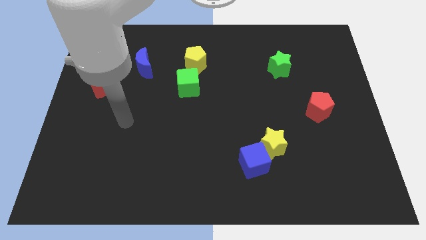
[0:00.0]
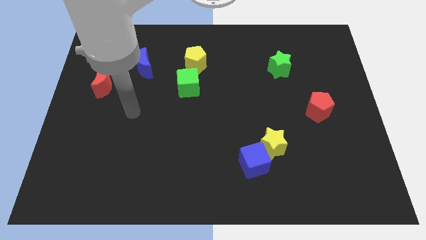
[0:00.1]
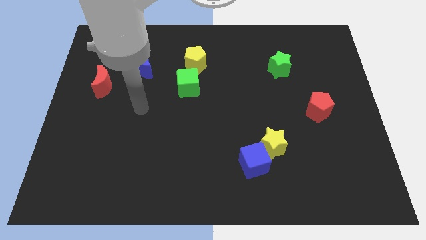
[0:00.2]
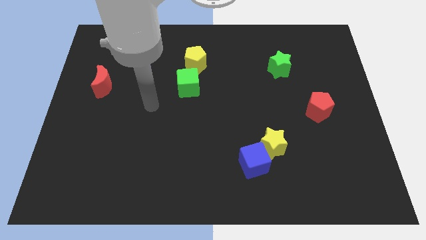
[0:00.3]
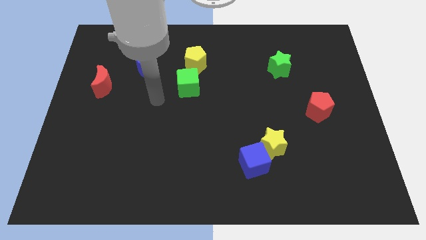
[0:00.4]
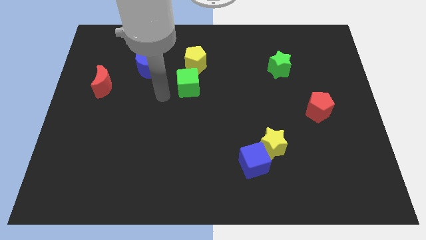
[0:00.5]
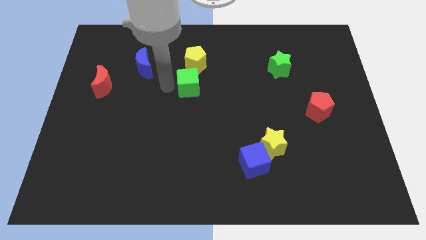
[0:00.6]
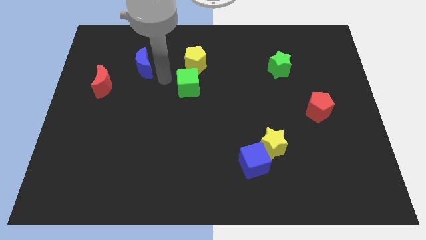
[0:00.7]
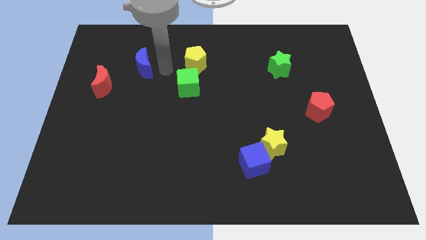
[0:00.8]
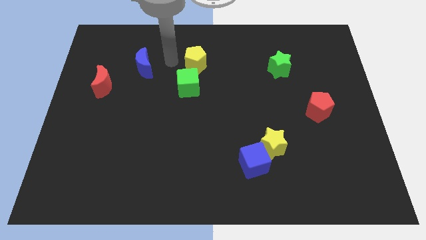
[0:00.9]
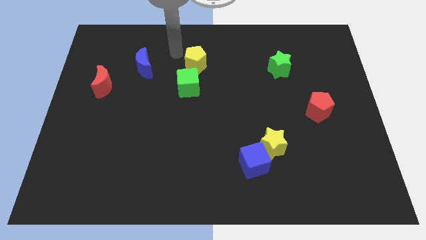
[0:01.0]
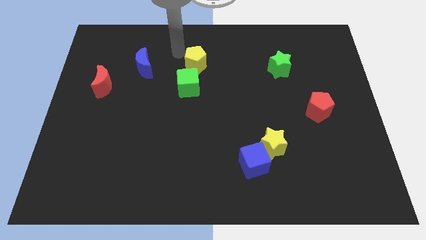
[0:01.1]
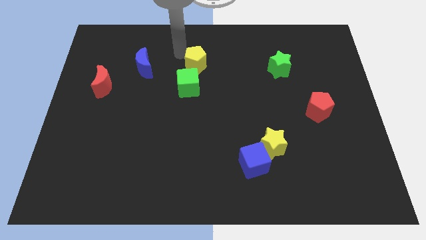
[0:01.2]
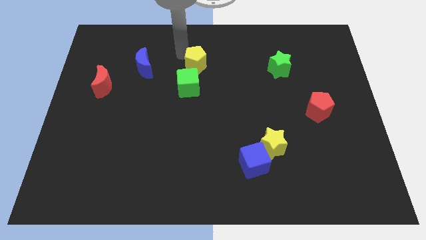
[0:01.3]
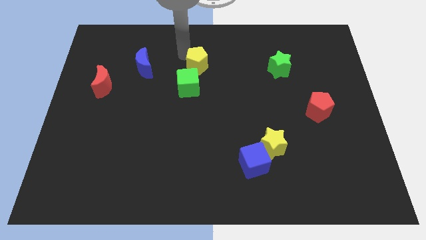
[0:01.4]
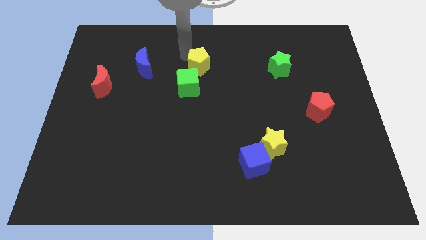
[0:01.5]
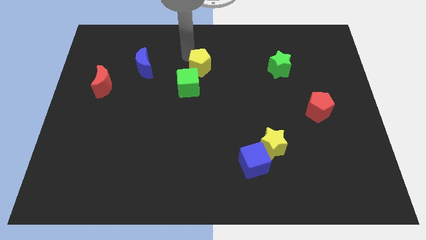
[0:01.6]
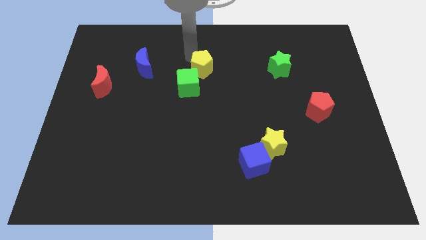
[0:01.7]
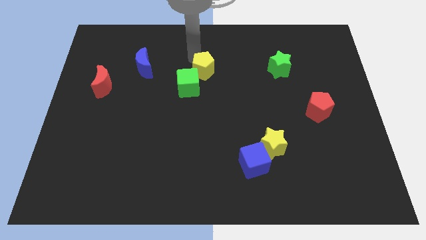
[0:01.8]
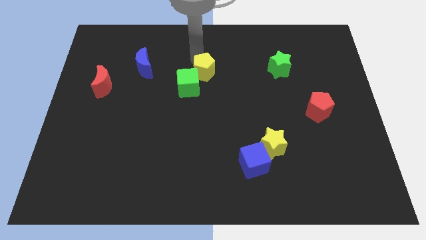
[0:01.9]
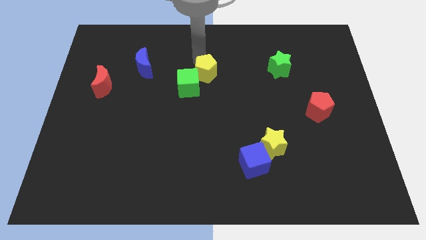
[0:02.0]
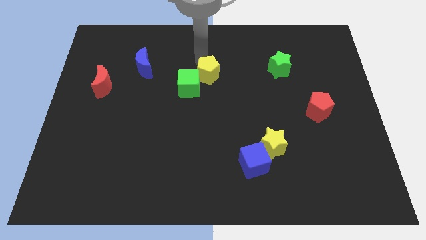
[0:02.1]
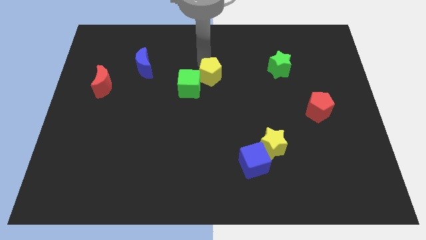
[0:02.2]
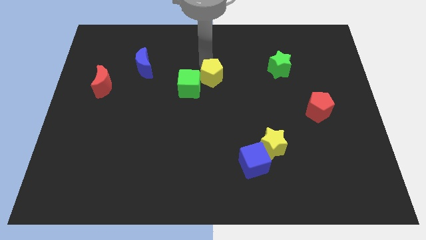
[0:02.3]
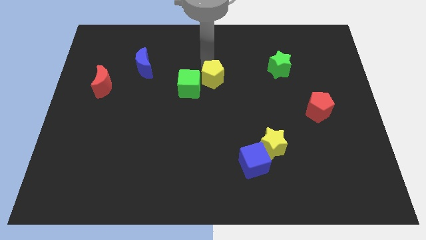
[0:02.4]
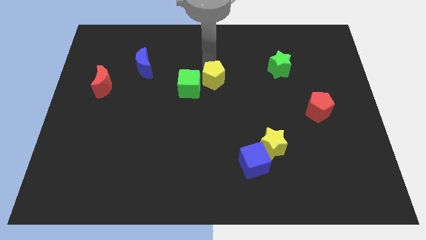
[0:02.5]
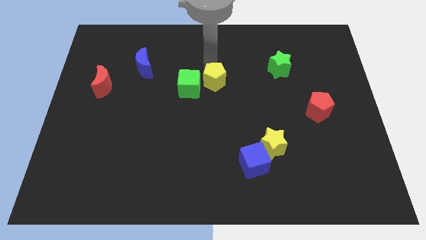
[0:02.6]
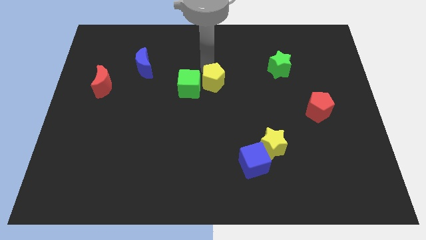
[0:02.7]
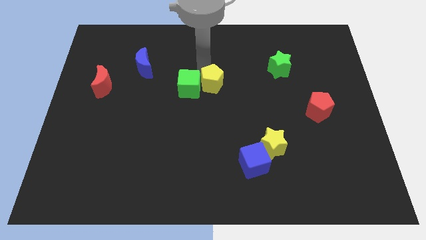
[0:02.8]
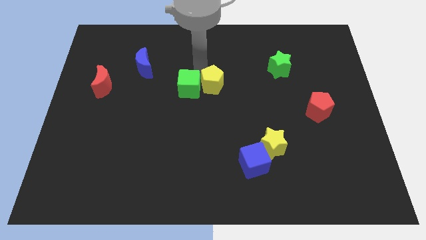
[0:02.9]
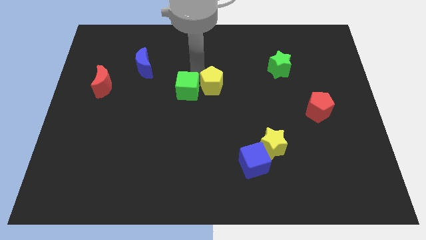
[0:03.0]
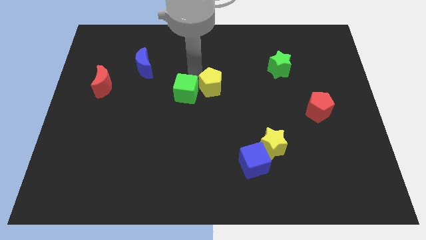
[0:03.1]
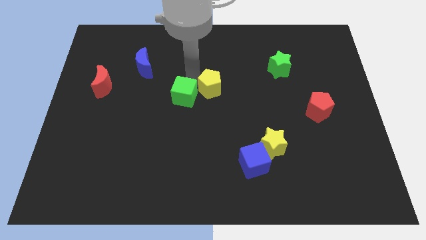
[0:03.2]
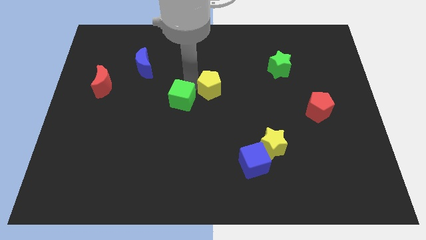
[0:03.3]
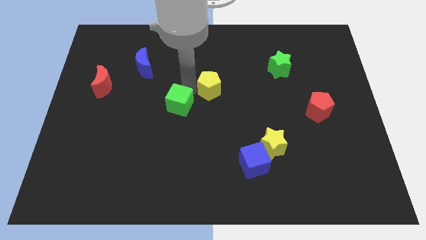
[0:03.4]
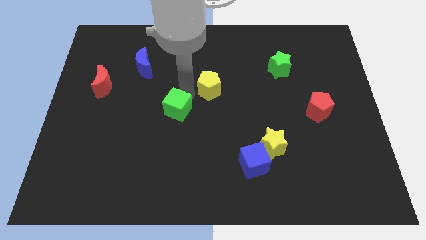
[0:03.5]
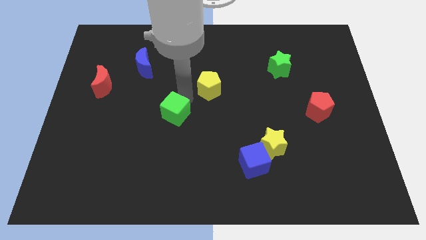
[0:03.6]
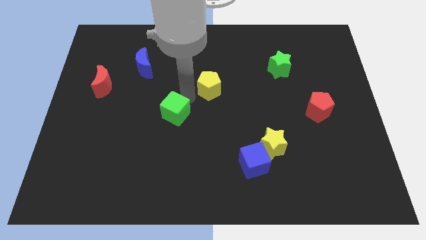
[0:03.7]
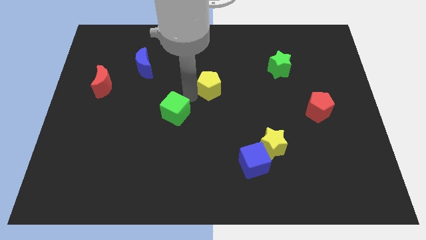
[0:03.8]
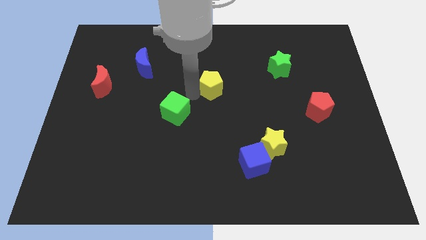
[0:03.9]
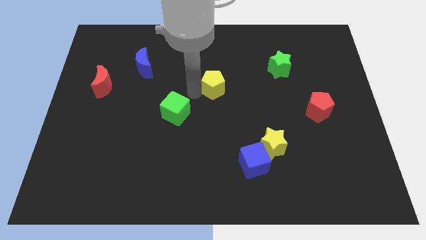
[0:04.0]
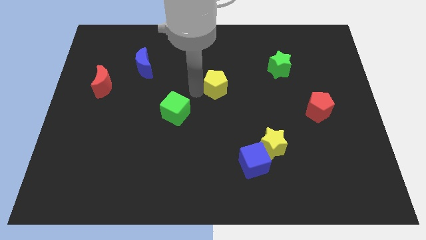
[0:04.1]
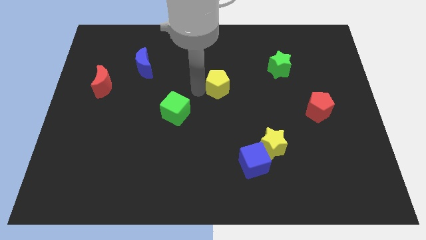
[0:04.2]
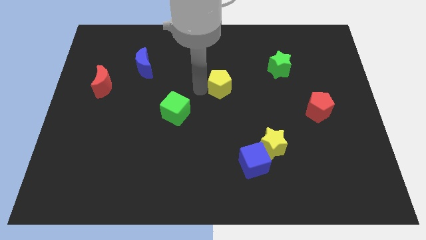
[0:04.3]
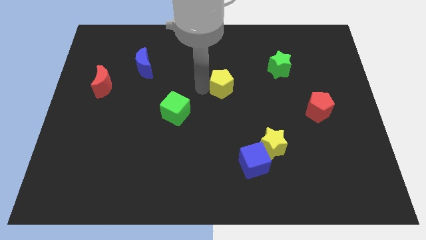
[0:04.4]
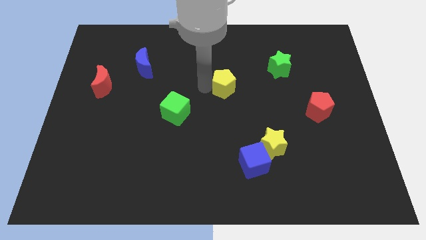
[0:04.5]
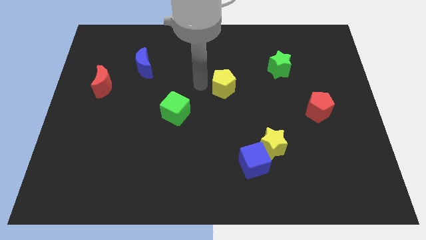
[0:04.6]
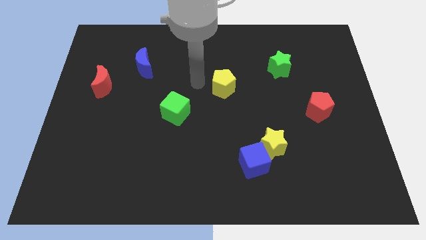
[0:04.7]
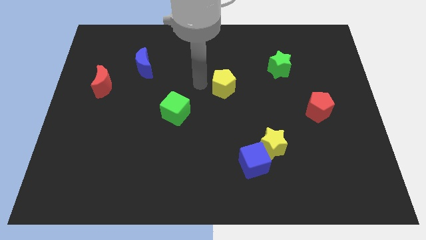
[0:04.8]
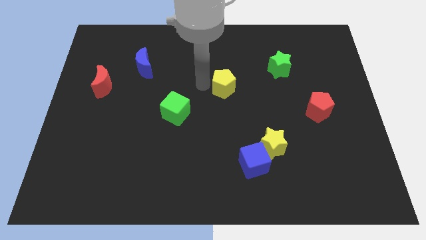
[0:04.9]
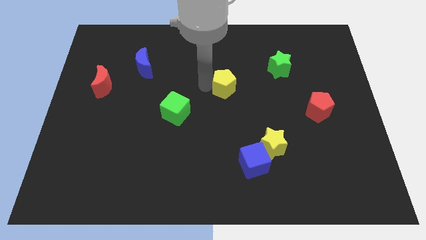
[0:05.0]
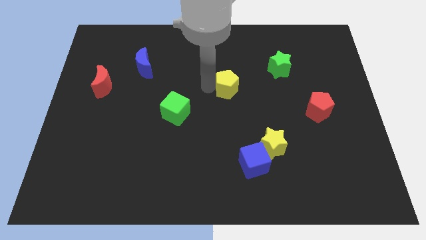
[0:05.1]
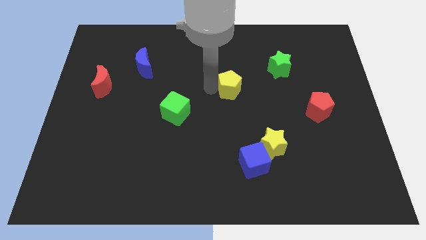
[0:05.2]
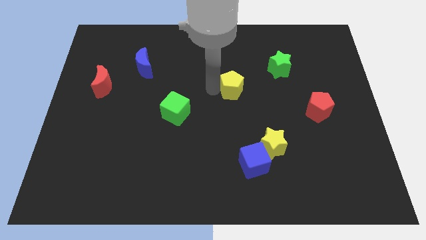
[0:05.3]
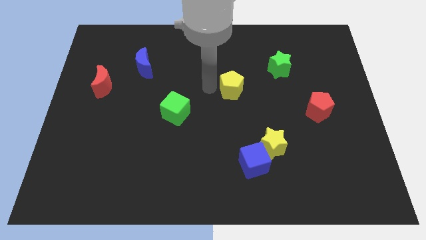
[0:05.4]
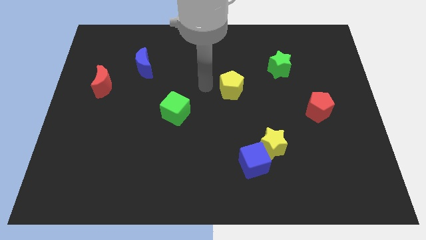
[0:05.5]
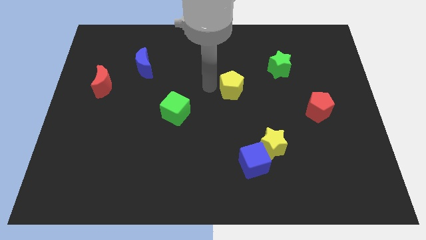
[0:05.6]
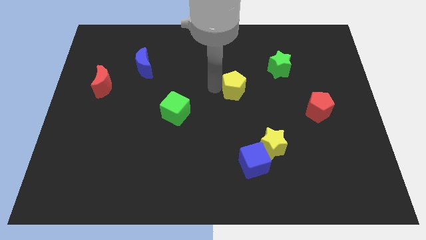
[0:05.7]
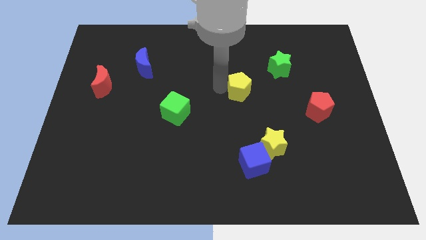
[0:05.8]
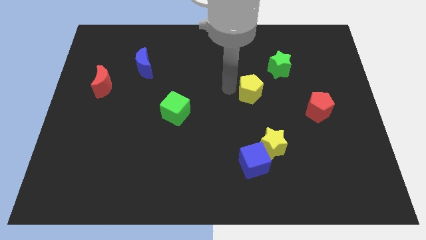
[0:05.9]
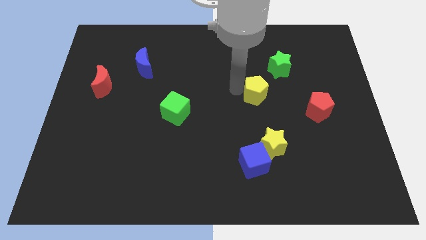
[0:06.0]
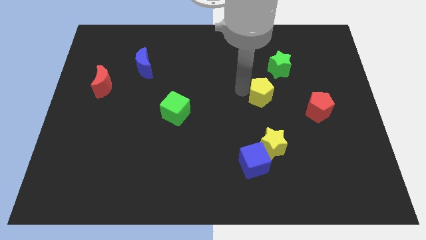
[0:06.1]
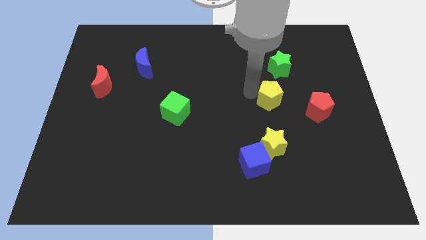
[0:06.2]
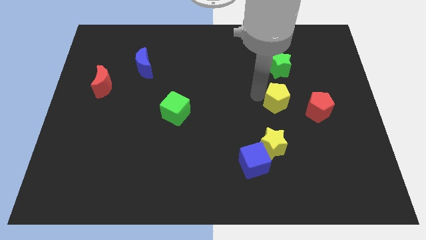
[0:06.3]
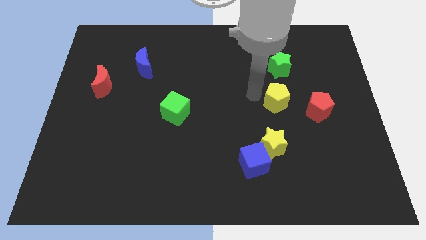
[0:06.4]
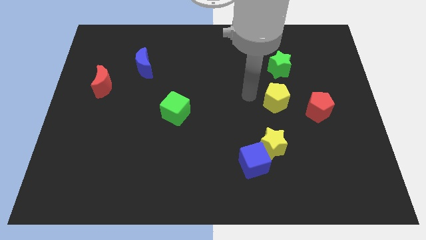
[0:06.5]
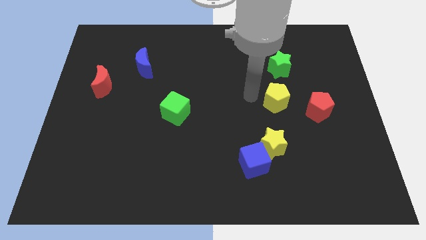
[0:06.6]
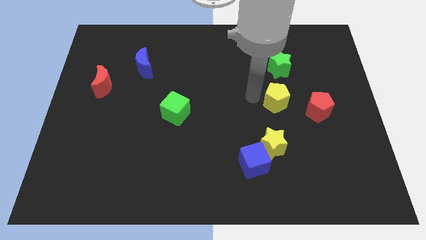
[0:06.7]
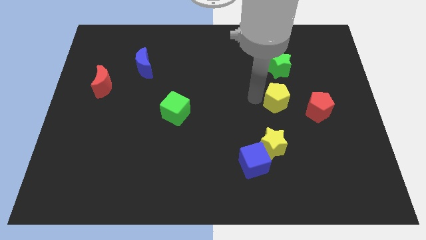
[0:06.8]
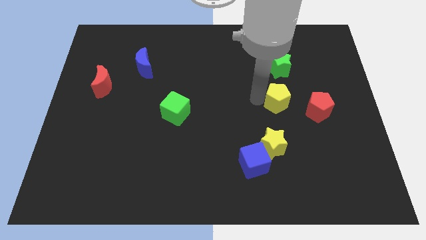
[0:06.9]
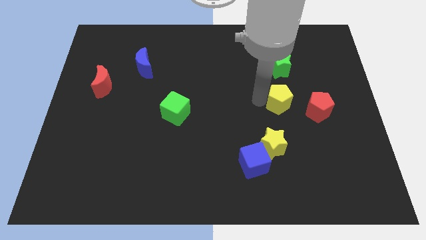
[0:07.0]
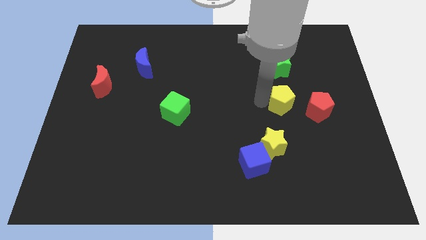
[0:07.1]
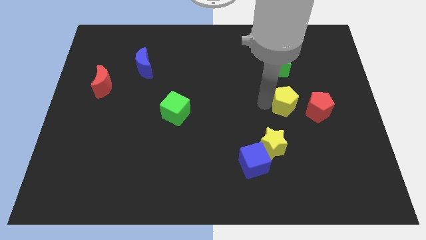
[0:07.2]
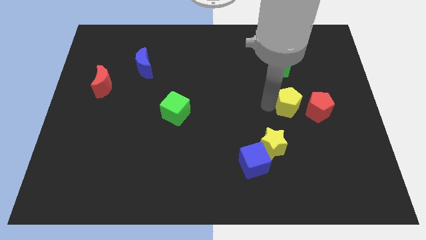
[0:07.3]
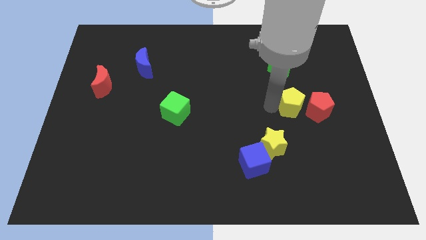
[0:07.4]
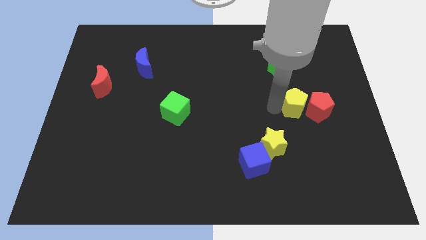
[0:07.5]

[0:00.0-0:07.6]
move the yellow pentagon close to the red pentagon

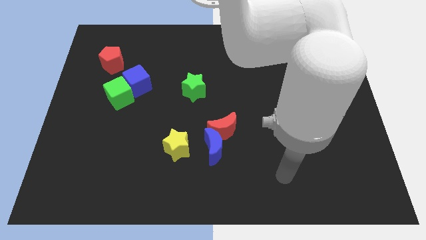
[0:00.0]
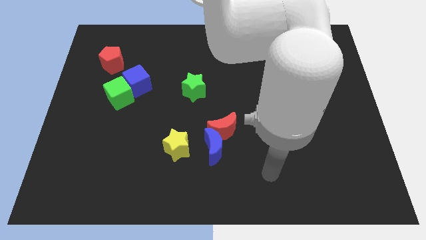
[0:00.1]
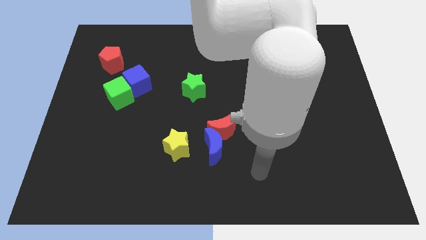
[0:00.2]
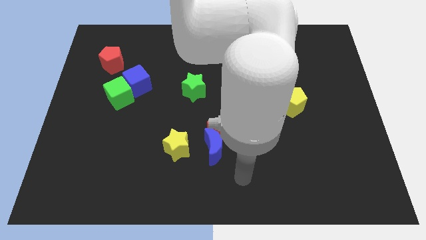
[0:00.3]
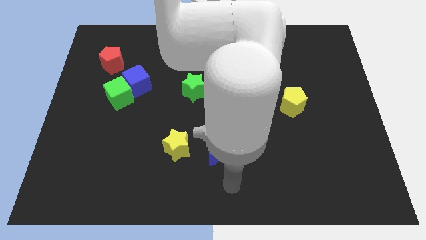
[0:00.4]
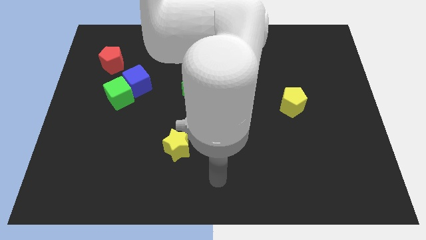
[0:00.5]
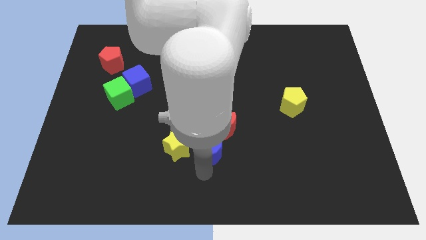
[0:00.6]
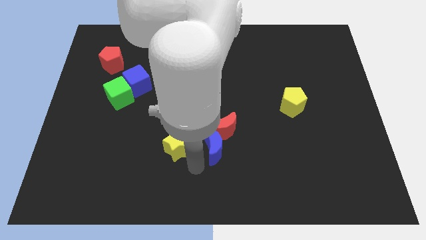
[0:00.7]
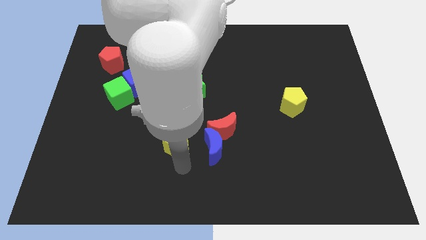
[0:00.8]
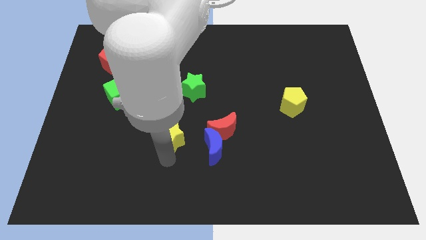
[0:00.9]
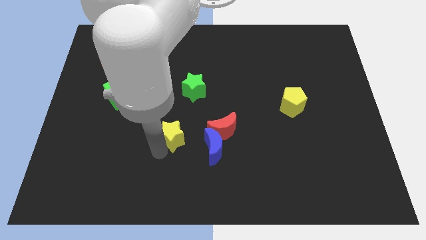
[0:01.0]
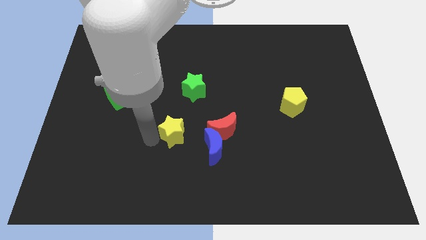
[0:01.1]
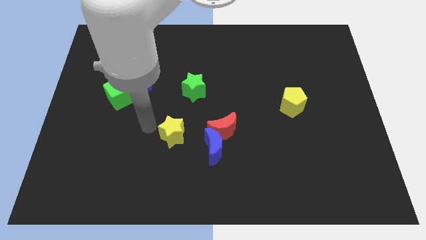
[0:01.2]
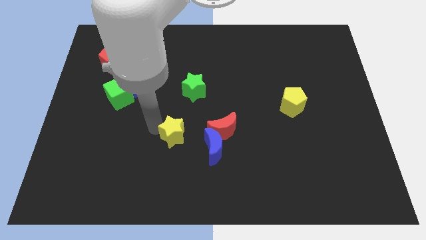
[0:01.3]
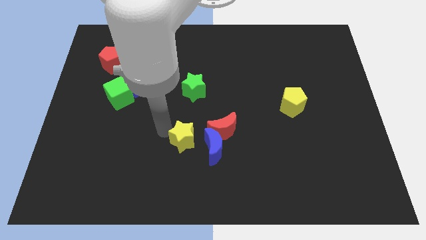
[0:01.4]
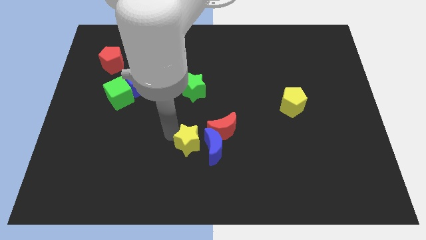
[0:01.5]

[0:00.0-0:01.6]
slide the yellow star to the blue moon
